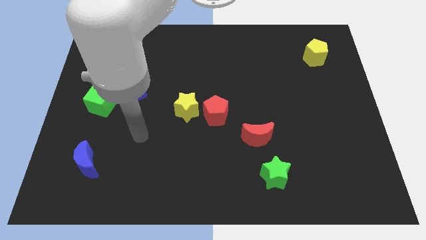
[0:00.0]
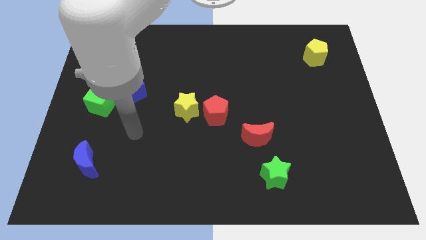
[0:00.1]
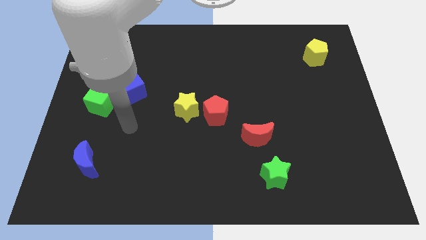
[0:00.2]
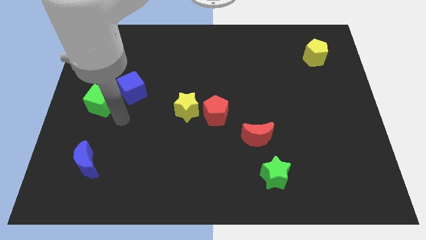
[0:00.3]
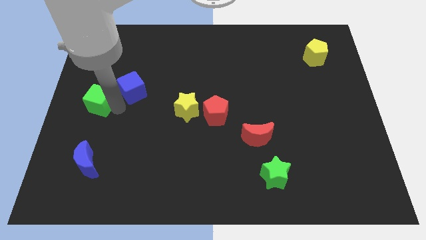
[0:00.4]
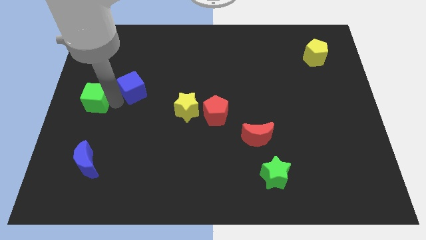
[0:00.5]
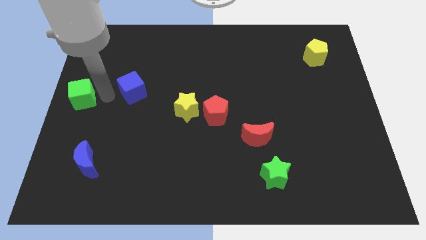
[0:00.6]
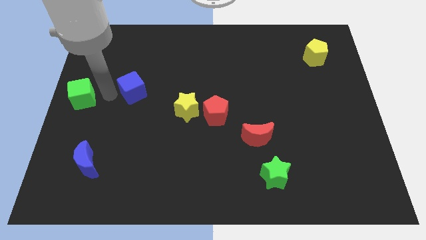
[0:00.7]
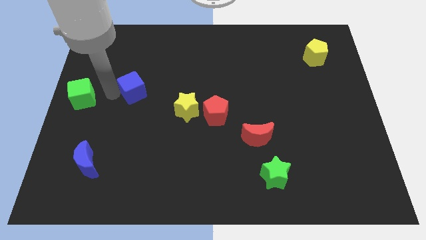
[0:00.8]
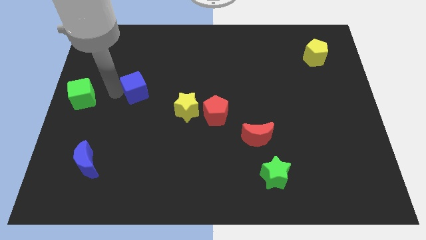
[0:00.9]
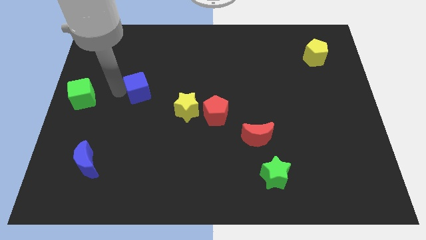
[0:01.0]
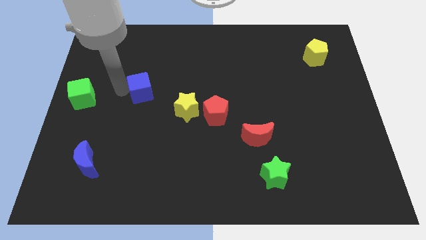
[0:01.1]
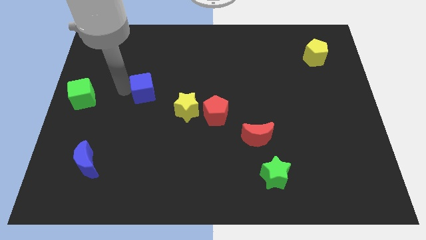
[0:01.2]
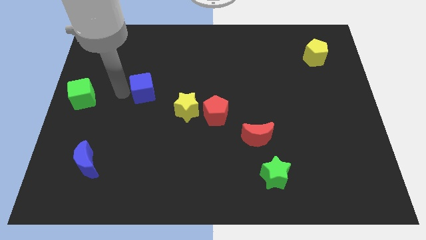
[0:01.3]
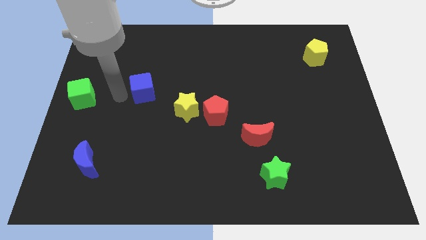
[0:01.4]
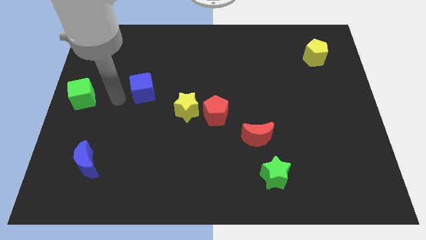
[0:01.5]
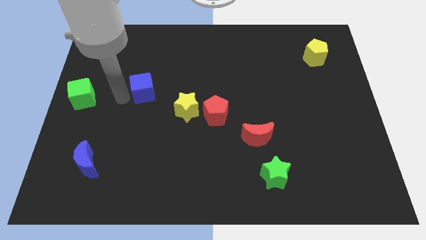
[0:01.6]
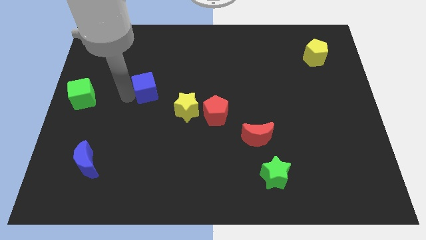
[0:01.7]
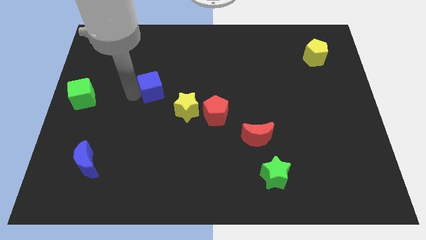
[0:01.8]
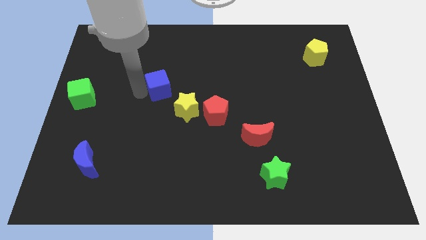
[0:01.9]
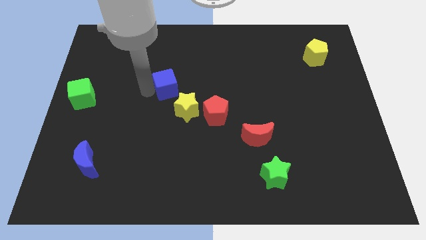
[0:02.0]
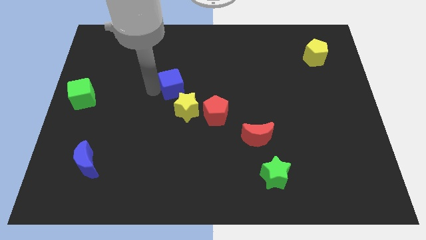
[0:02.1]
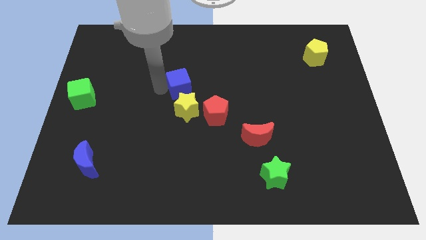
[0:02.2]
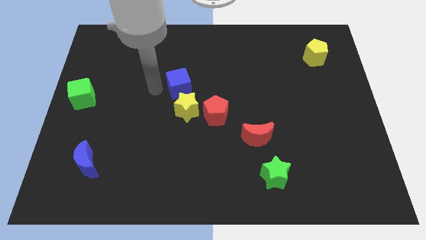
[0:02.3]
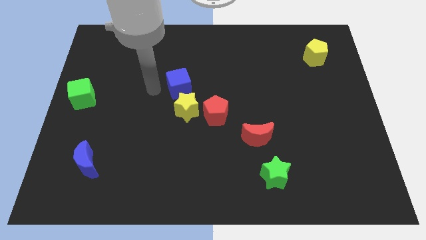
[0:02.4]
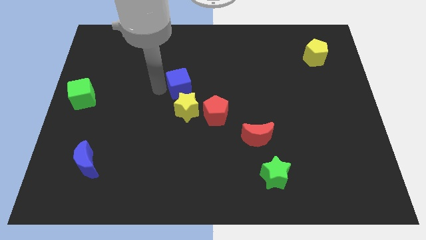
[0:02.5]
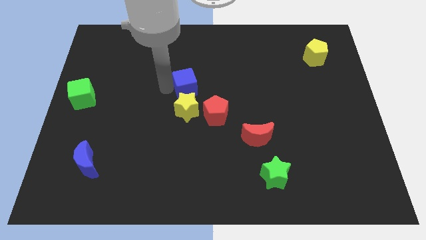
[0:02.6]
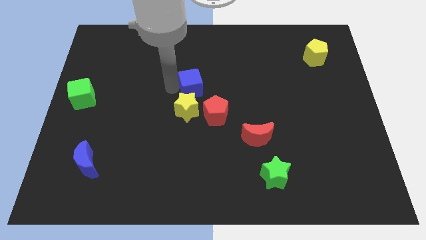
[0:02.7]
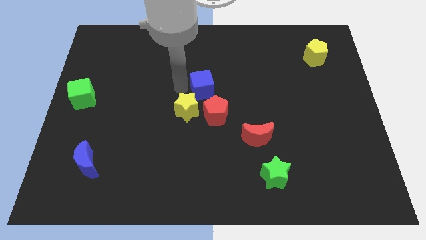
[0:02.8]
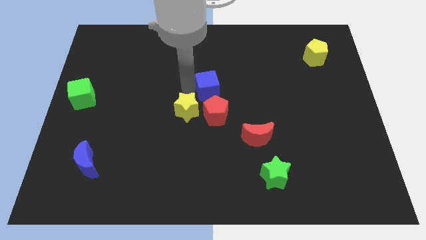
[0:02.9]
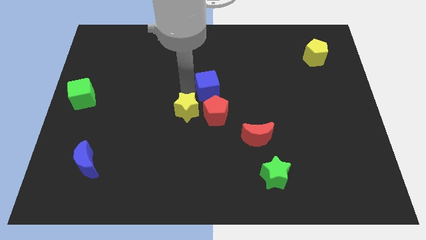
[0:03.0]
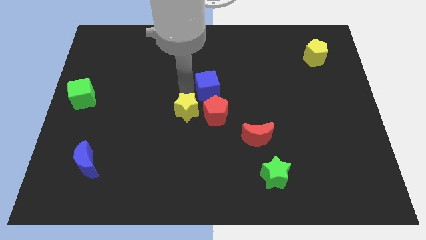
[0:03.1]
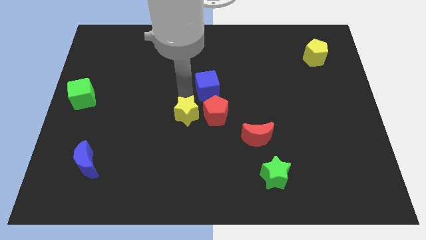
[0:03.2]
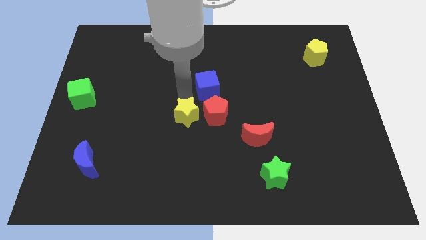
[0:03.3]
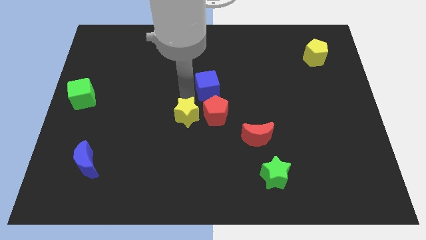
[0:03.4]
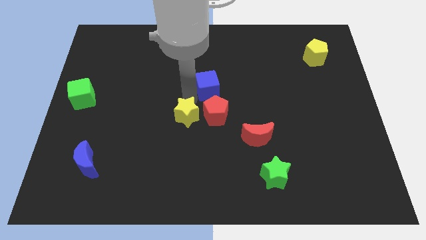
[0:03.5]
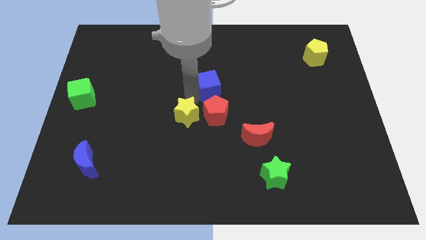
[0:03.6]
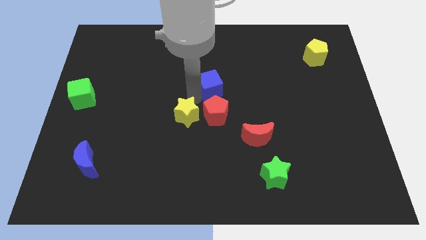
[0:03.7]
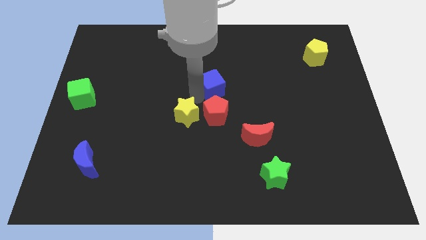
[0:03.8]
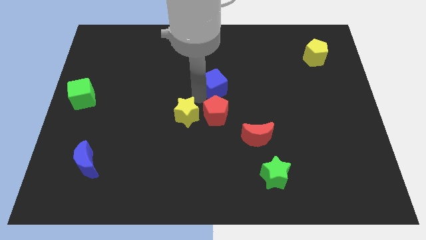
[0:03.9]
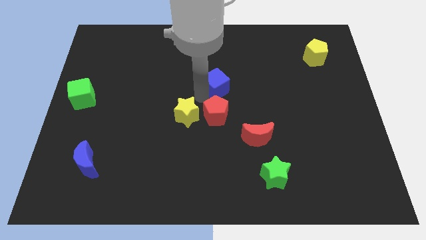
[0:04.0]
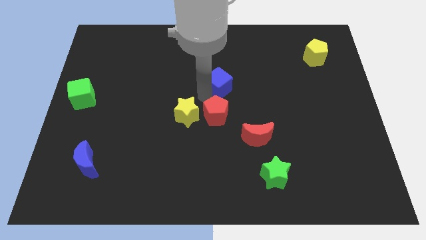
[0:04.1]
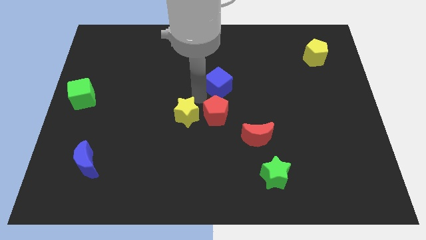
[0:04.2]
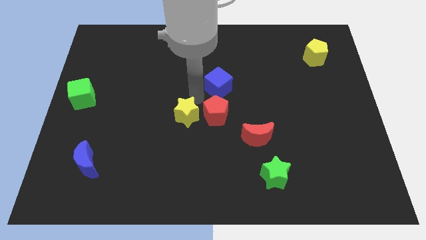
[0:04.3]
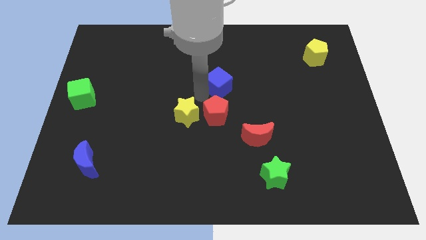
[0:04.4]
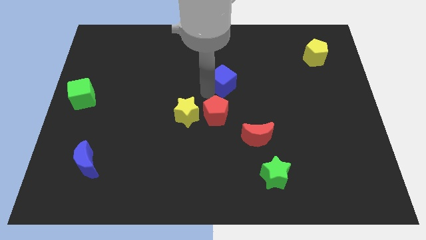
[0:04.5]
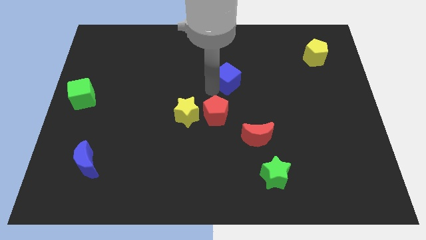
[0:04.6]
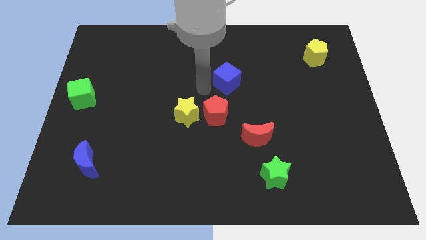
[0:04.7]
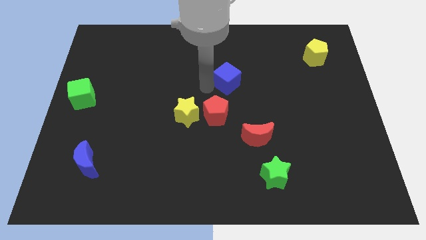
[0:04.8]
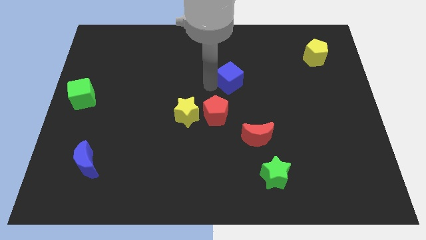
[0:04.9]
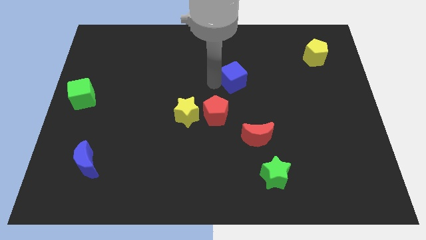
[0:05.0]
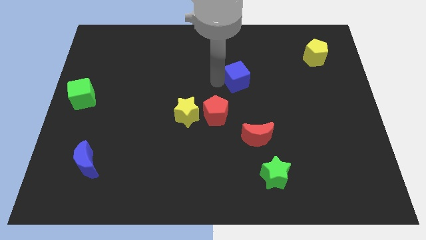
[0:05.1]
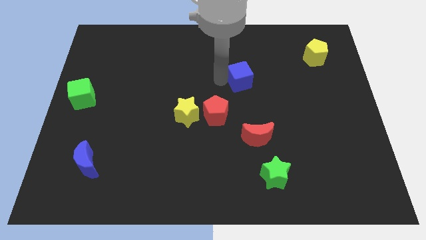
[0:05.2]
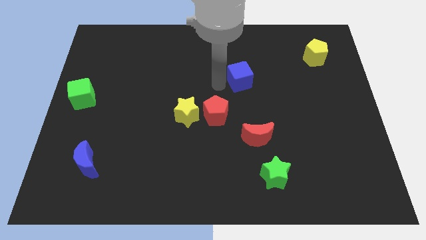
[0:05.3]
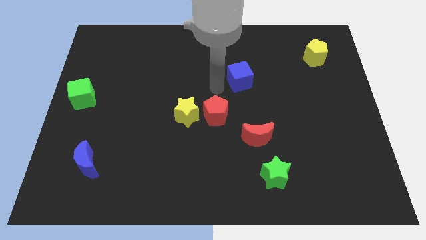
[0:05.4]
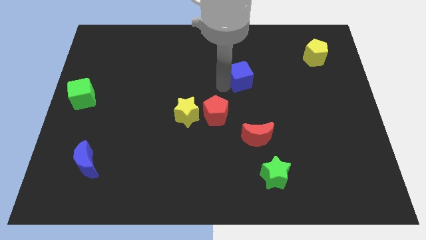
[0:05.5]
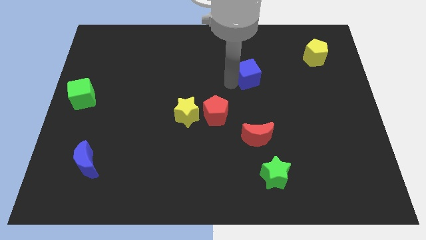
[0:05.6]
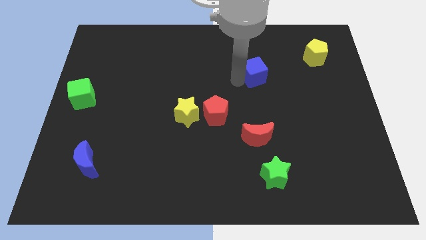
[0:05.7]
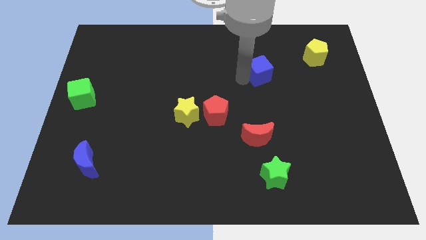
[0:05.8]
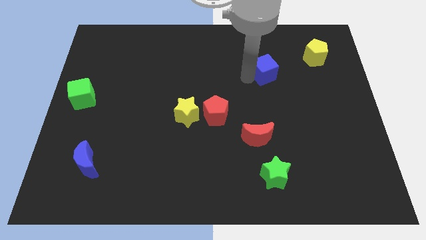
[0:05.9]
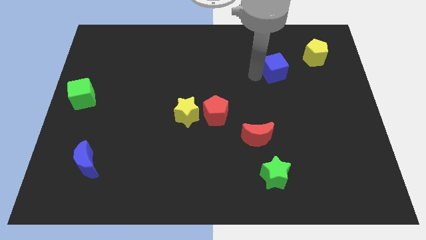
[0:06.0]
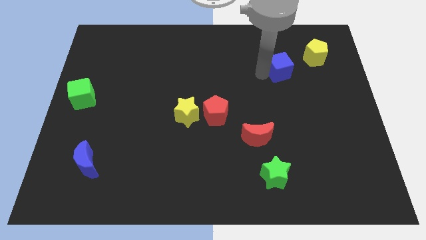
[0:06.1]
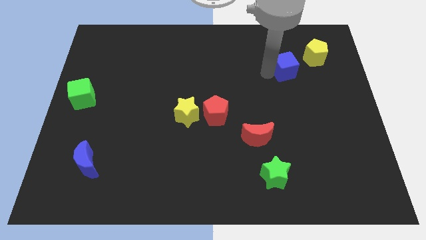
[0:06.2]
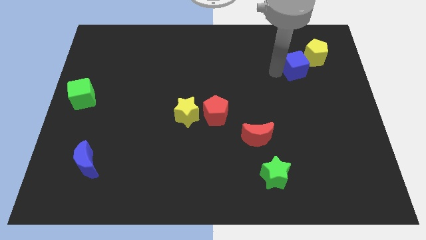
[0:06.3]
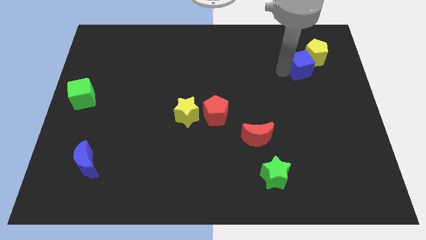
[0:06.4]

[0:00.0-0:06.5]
slide the blue cube close to the yellow pentagon

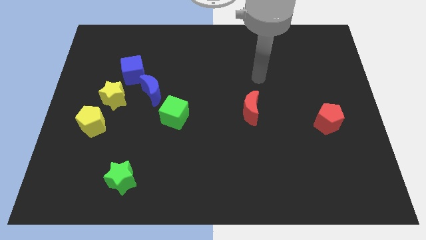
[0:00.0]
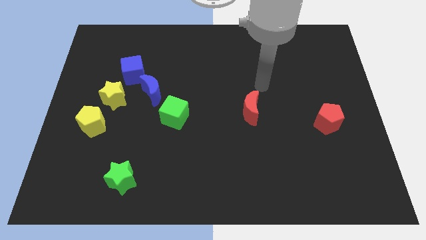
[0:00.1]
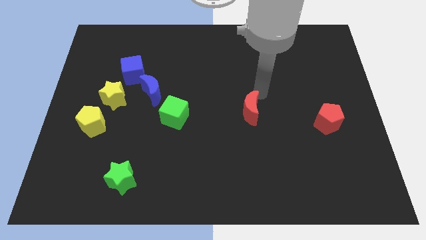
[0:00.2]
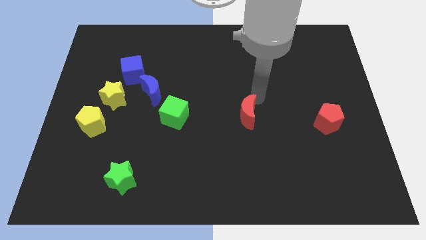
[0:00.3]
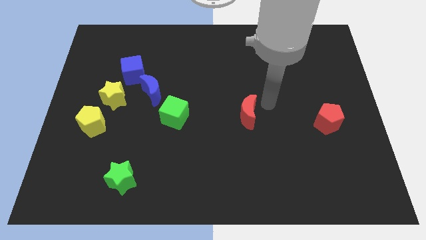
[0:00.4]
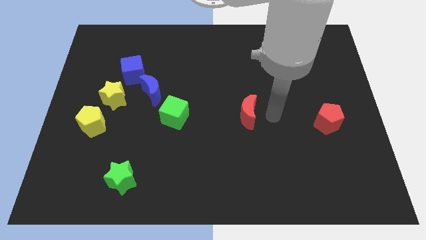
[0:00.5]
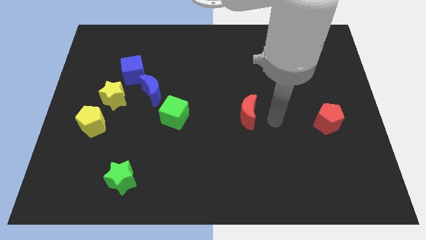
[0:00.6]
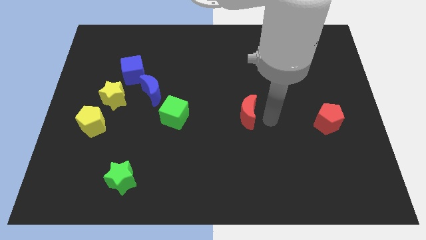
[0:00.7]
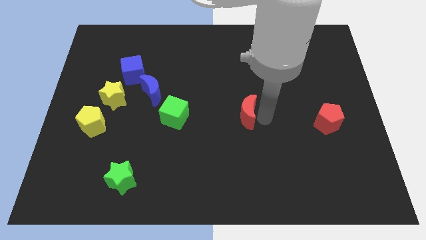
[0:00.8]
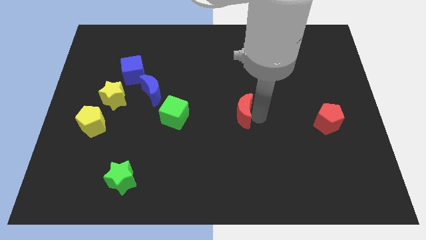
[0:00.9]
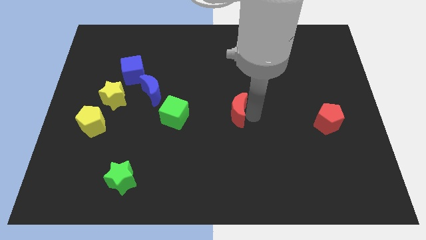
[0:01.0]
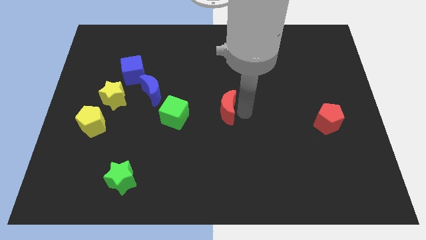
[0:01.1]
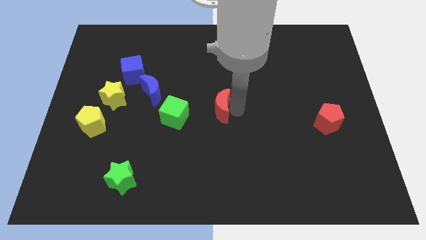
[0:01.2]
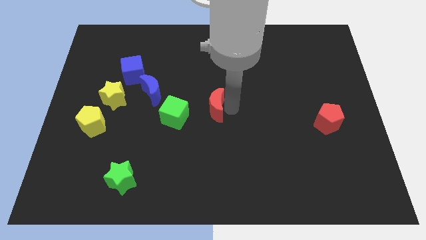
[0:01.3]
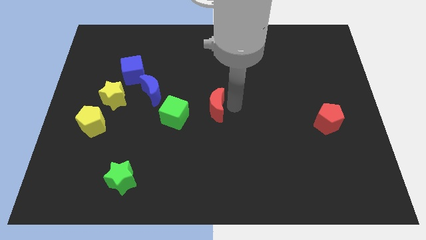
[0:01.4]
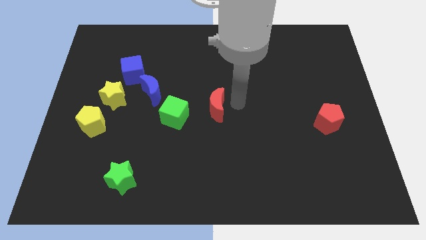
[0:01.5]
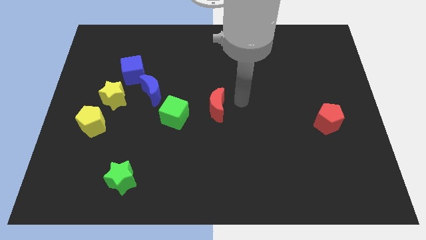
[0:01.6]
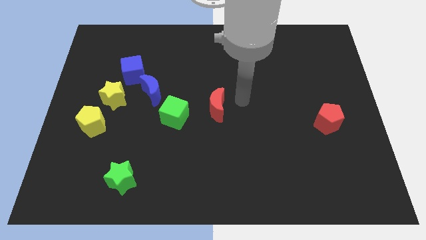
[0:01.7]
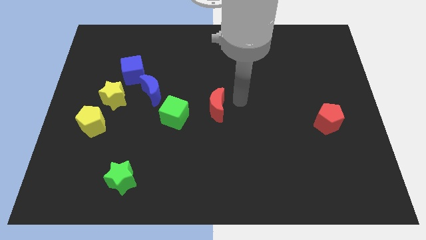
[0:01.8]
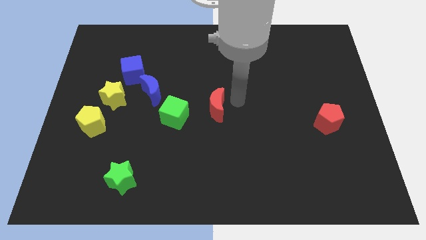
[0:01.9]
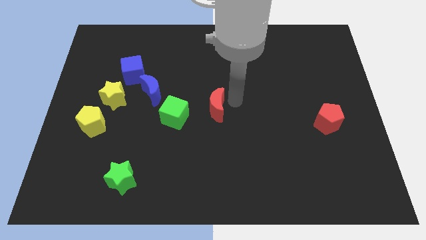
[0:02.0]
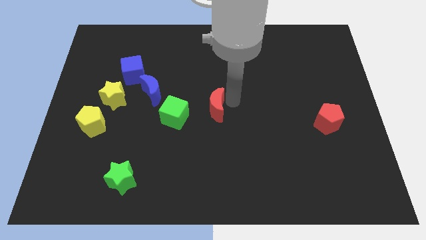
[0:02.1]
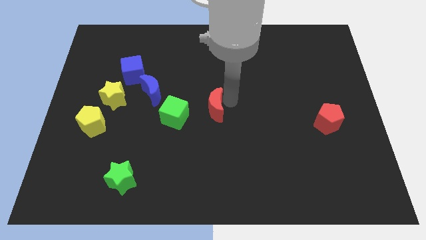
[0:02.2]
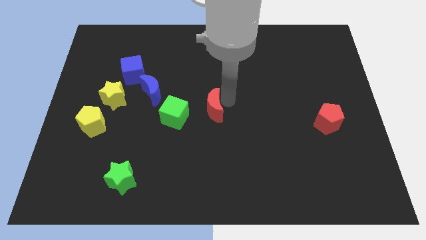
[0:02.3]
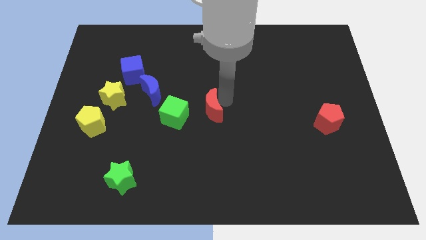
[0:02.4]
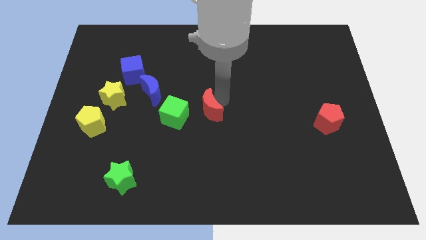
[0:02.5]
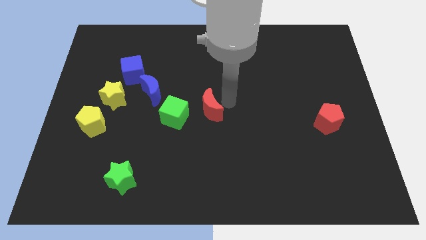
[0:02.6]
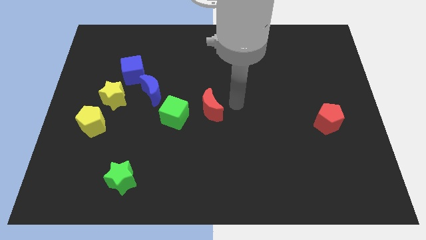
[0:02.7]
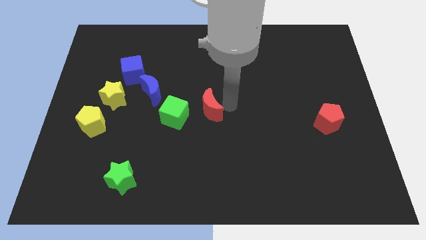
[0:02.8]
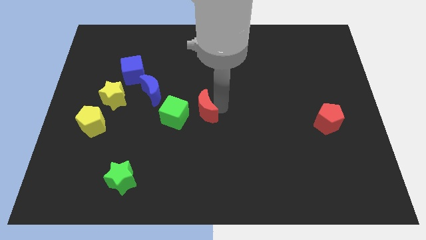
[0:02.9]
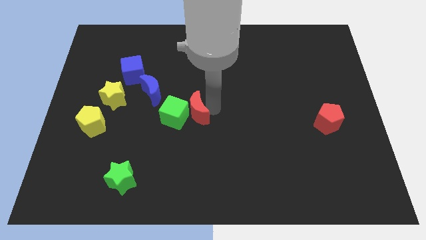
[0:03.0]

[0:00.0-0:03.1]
move the red moon close to the green cube
